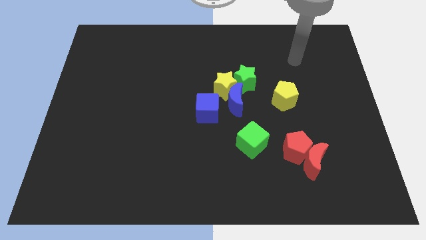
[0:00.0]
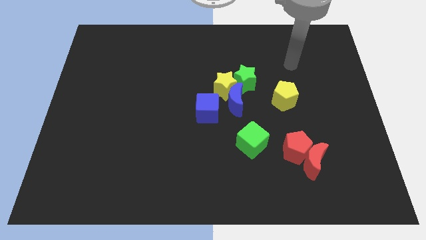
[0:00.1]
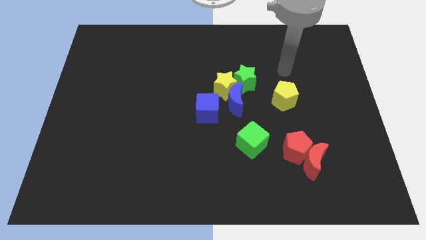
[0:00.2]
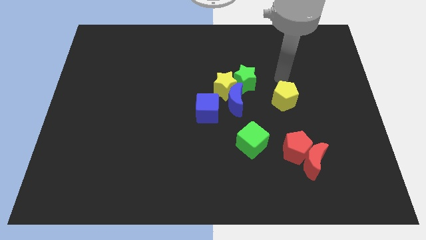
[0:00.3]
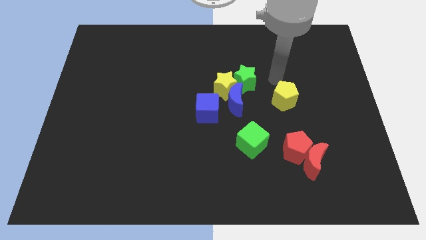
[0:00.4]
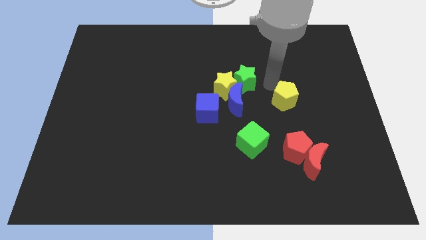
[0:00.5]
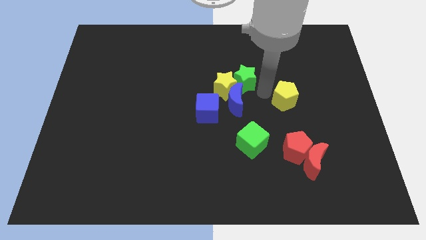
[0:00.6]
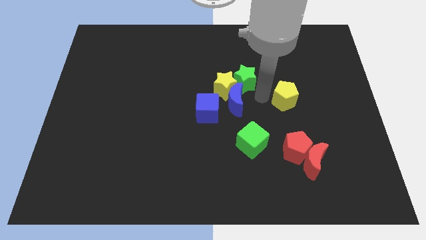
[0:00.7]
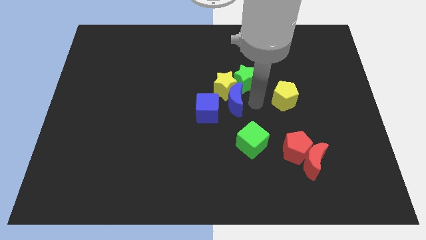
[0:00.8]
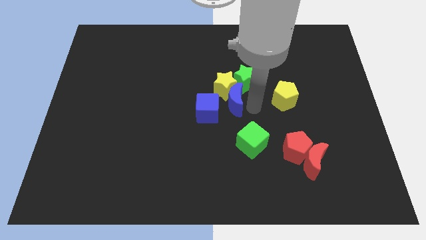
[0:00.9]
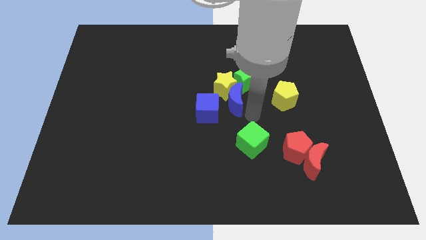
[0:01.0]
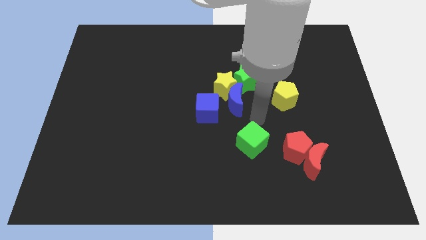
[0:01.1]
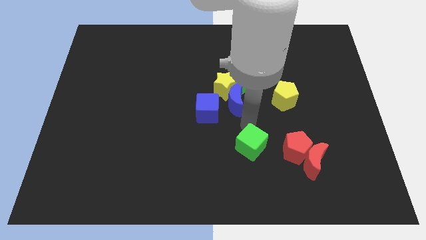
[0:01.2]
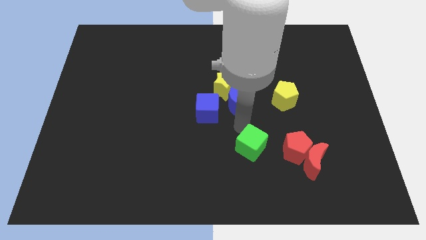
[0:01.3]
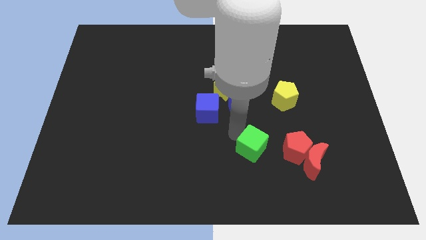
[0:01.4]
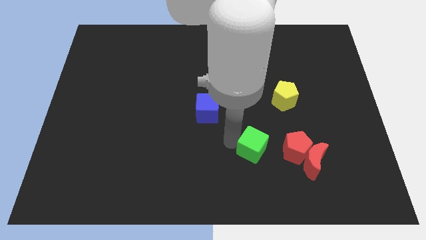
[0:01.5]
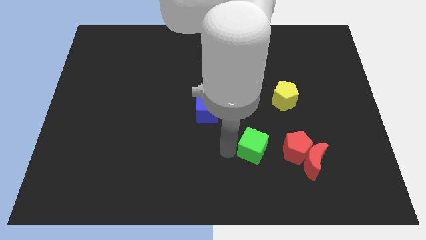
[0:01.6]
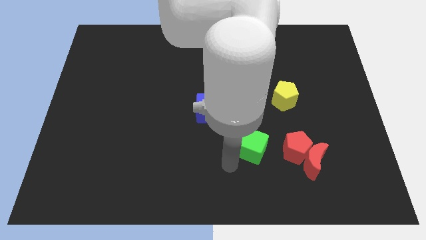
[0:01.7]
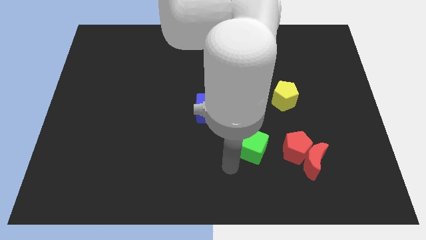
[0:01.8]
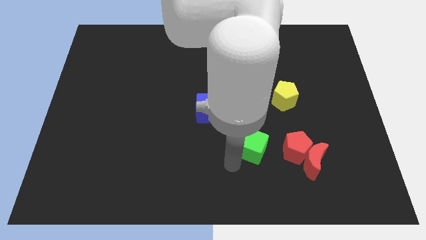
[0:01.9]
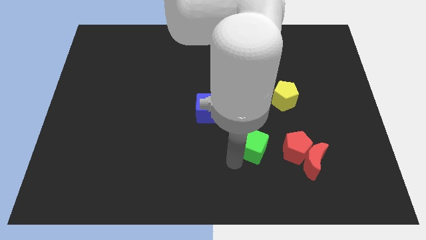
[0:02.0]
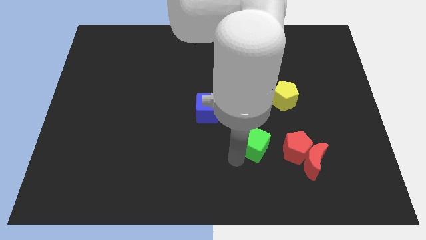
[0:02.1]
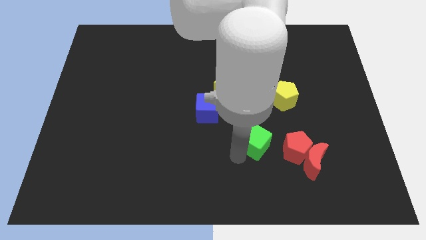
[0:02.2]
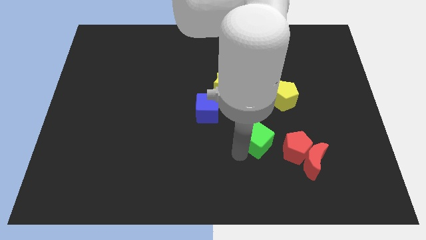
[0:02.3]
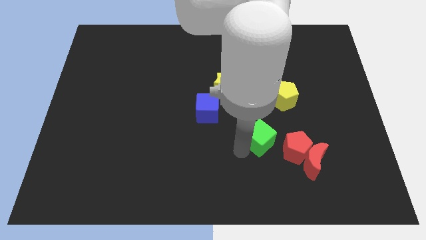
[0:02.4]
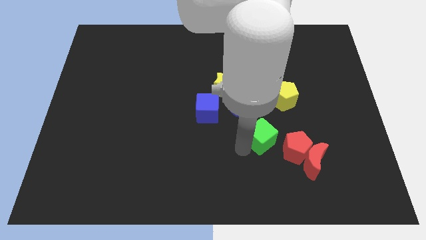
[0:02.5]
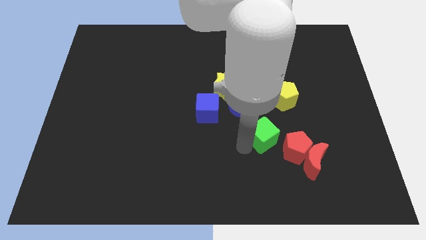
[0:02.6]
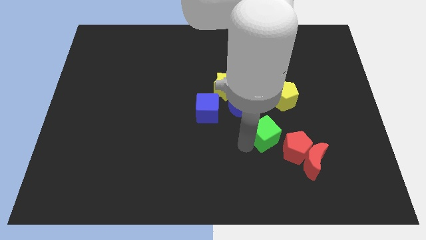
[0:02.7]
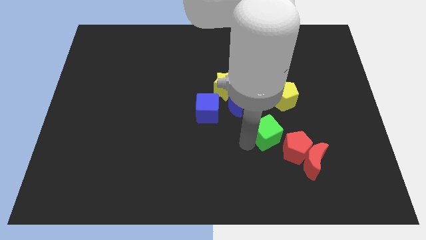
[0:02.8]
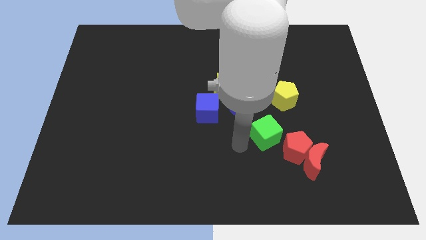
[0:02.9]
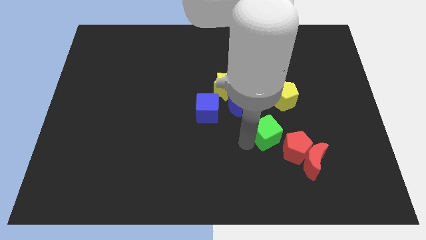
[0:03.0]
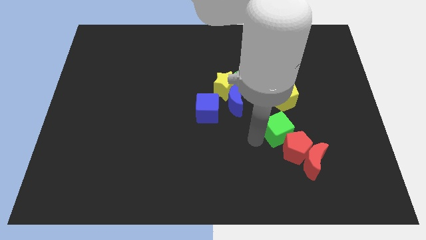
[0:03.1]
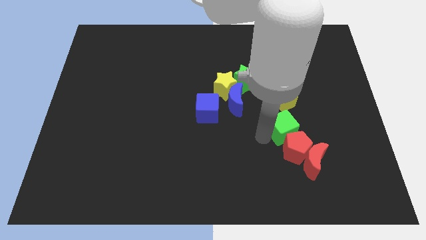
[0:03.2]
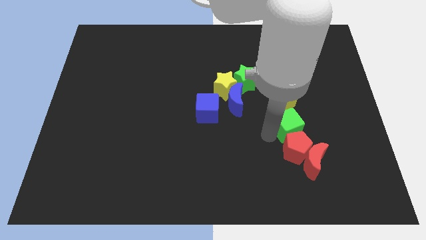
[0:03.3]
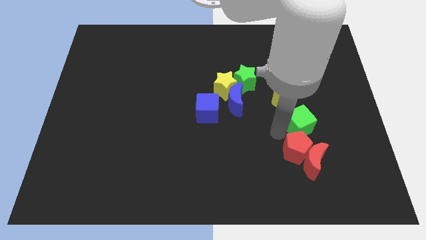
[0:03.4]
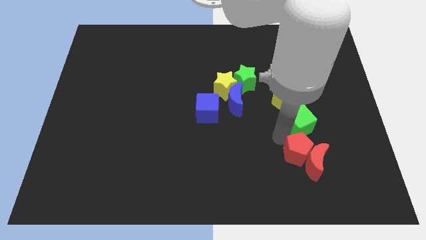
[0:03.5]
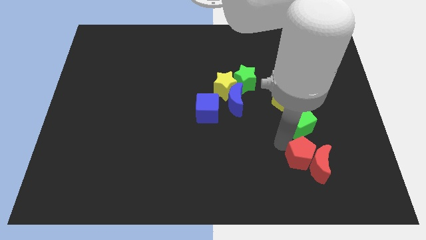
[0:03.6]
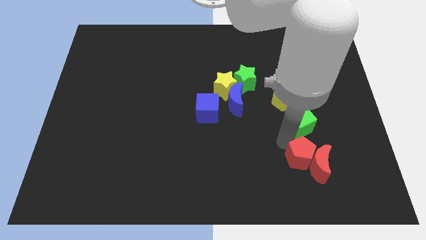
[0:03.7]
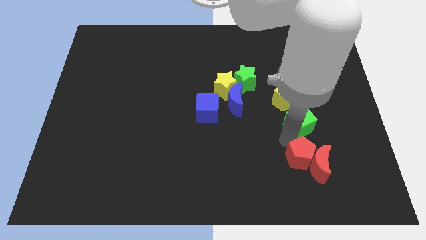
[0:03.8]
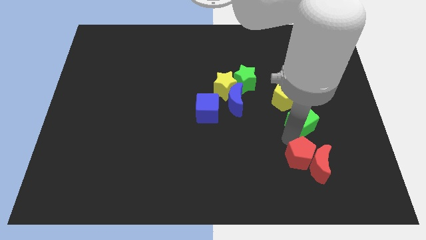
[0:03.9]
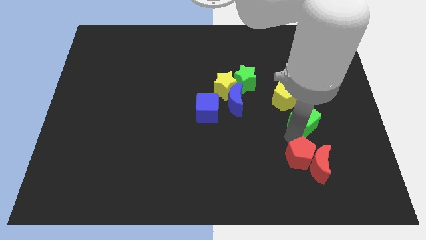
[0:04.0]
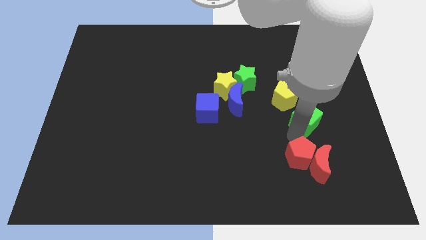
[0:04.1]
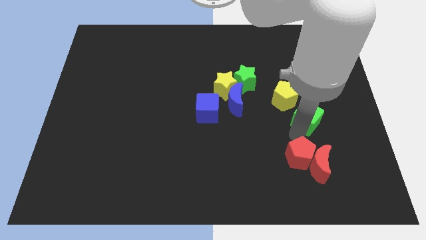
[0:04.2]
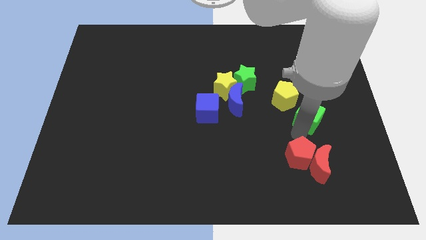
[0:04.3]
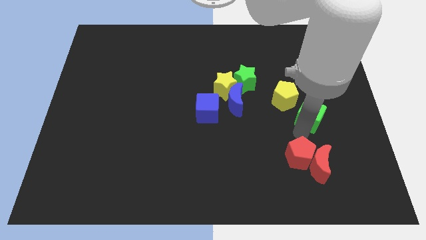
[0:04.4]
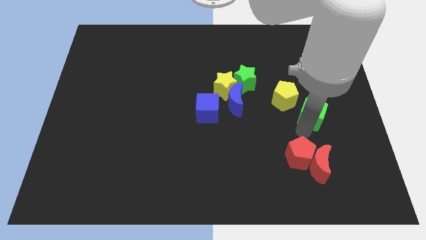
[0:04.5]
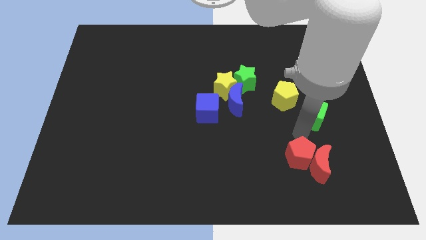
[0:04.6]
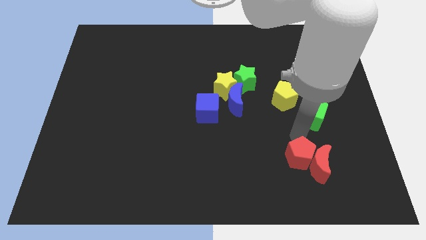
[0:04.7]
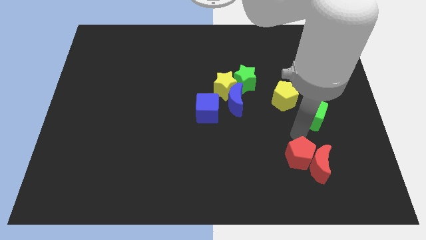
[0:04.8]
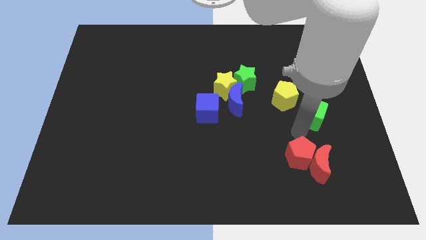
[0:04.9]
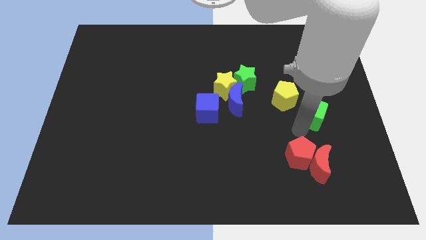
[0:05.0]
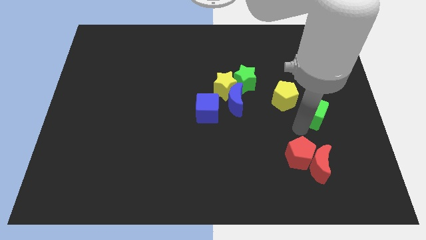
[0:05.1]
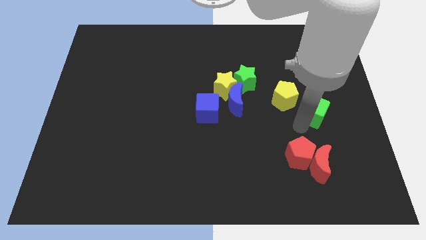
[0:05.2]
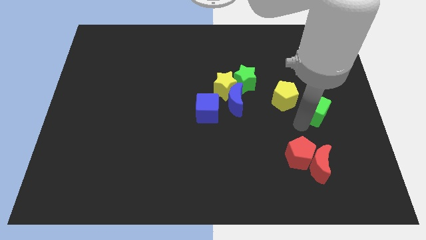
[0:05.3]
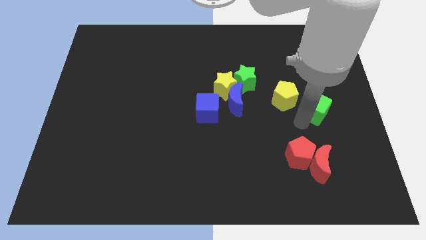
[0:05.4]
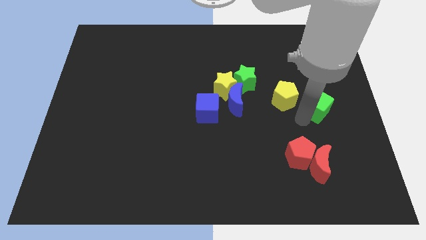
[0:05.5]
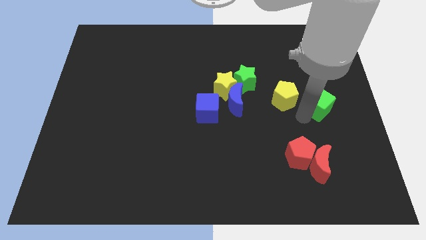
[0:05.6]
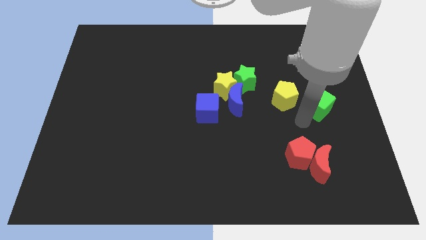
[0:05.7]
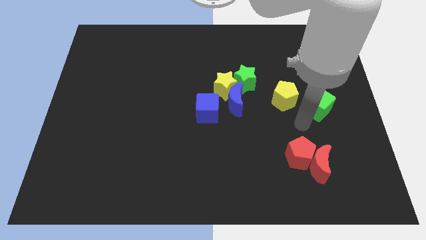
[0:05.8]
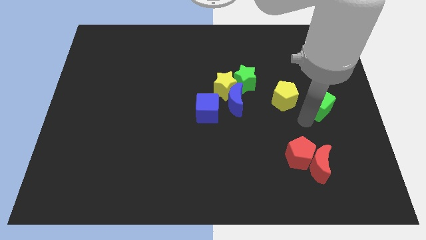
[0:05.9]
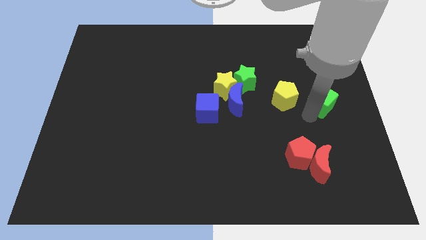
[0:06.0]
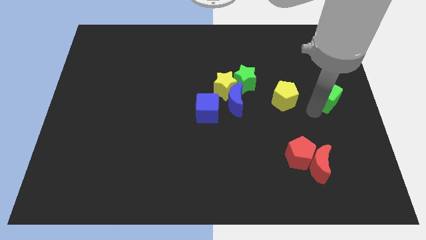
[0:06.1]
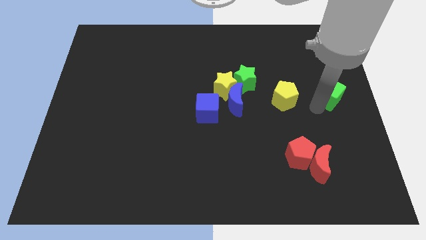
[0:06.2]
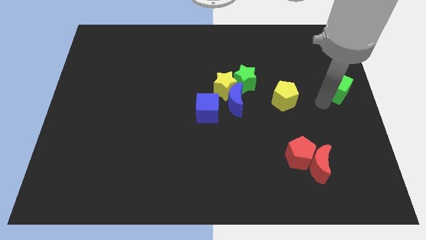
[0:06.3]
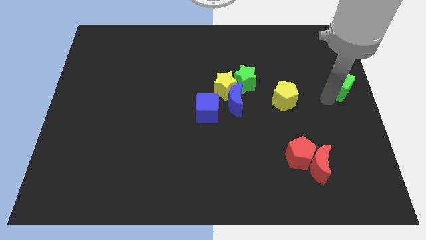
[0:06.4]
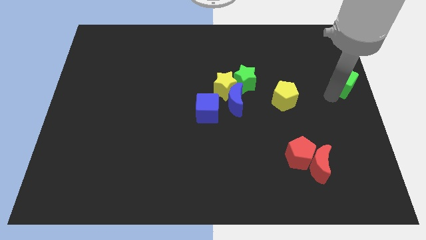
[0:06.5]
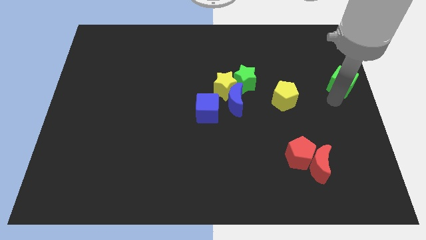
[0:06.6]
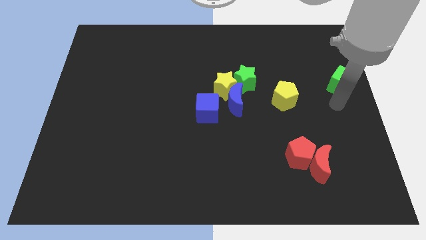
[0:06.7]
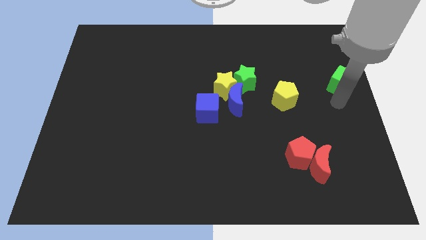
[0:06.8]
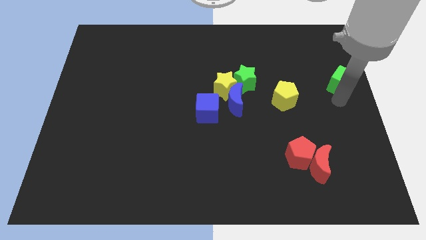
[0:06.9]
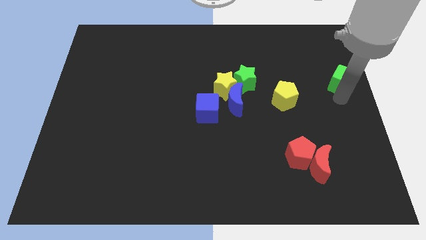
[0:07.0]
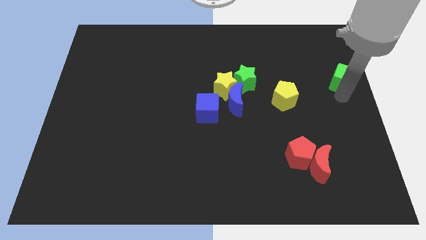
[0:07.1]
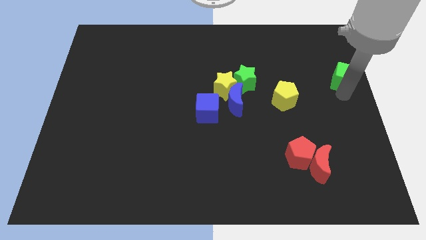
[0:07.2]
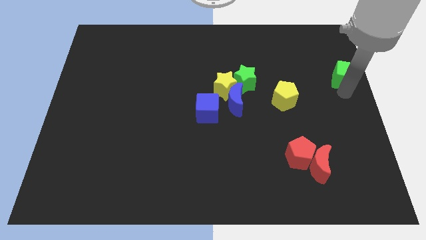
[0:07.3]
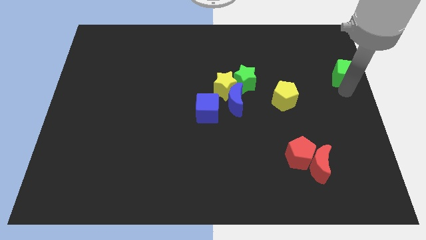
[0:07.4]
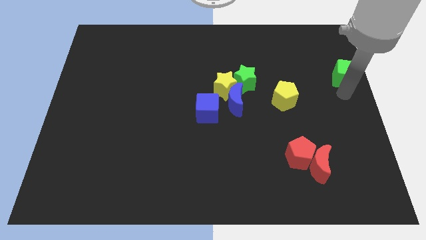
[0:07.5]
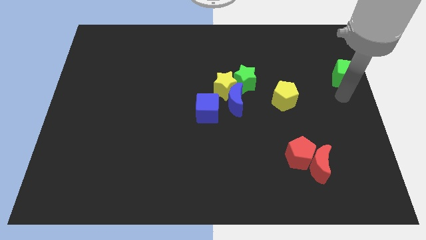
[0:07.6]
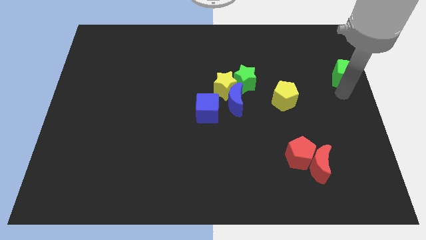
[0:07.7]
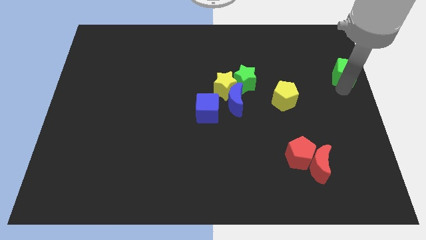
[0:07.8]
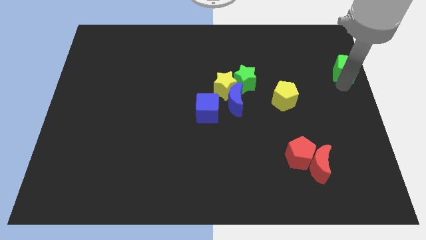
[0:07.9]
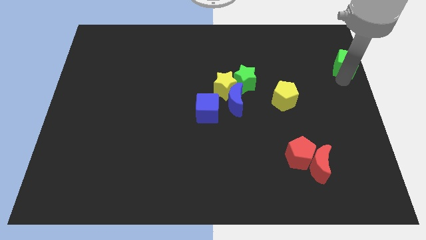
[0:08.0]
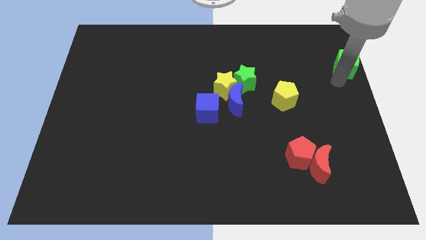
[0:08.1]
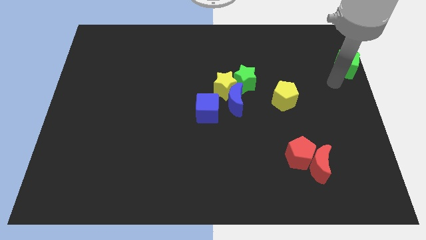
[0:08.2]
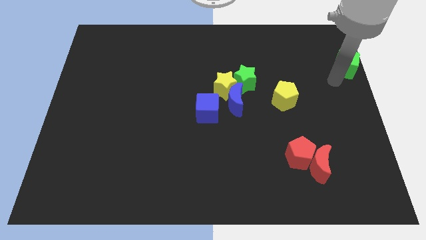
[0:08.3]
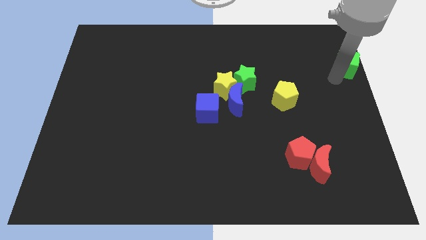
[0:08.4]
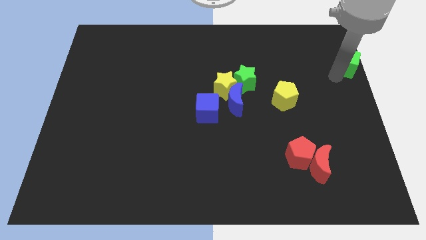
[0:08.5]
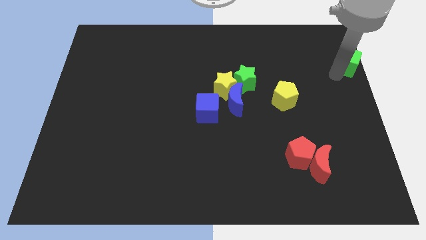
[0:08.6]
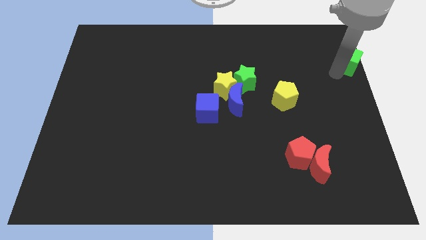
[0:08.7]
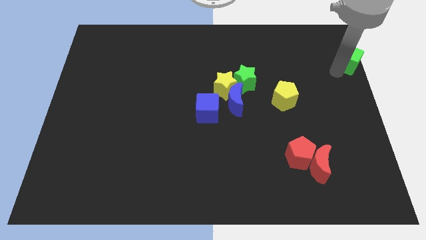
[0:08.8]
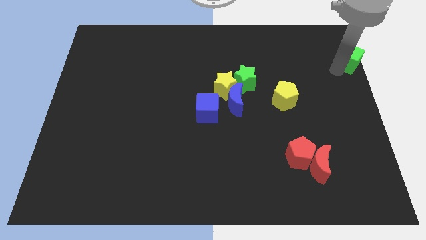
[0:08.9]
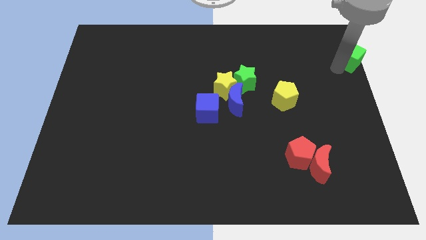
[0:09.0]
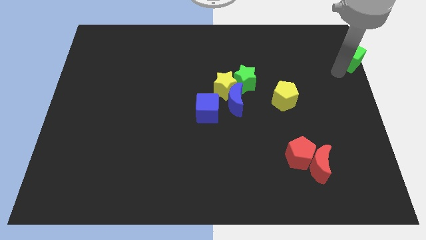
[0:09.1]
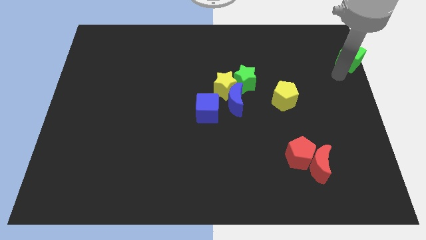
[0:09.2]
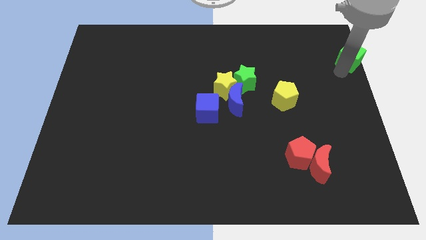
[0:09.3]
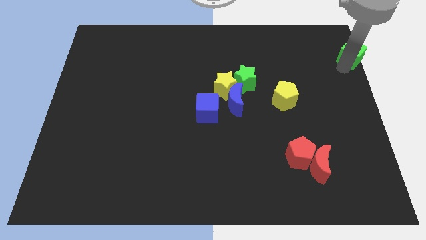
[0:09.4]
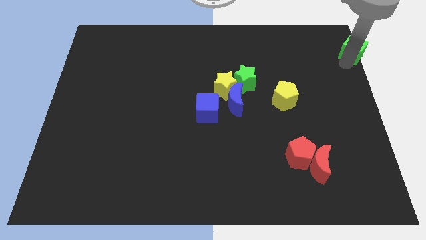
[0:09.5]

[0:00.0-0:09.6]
move the green cube to the top right
